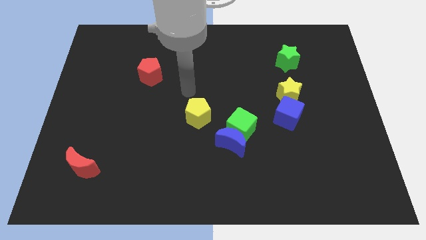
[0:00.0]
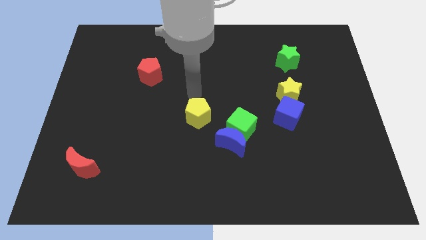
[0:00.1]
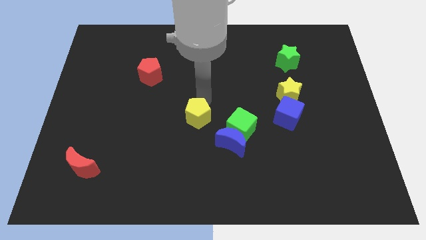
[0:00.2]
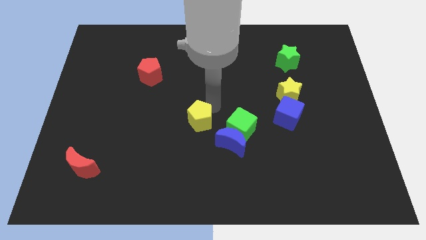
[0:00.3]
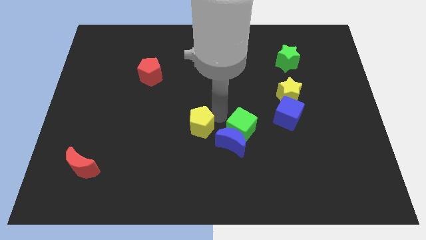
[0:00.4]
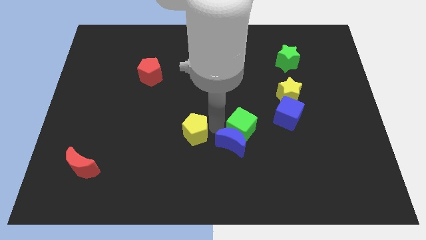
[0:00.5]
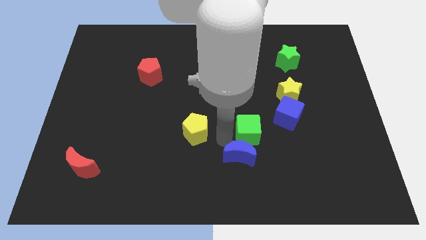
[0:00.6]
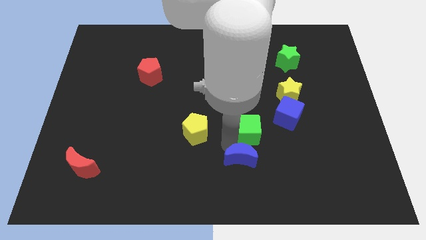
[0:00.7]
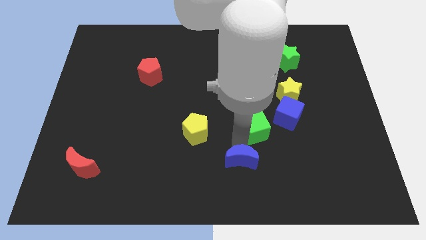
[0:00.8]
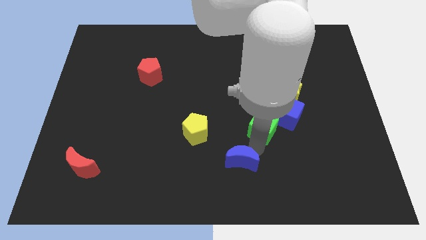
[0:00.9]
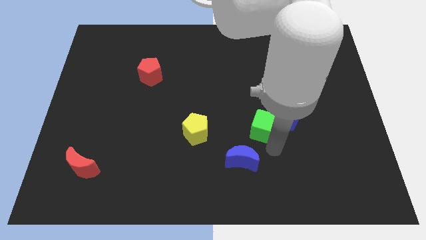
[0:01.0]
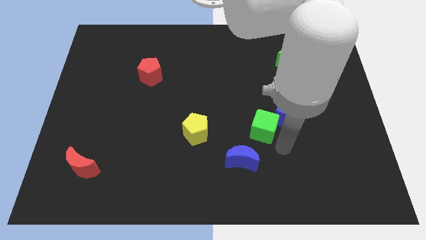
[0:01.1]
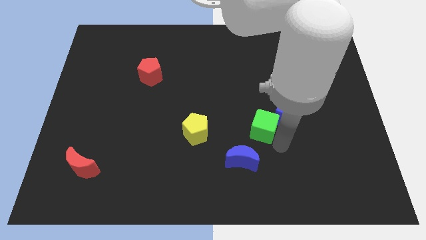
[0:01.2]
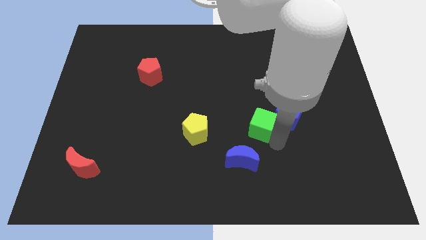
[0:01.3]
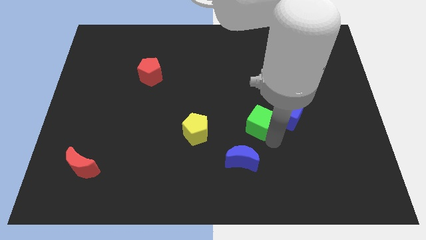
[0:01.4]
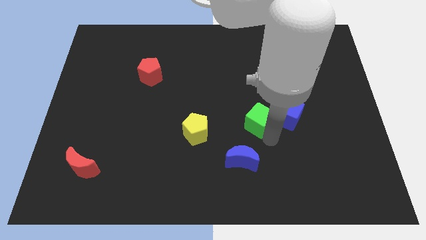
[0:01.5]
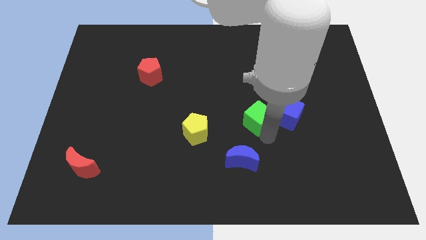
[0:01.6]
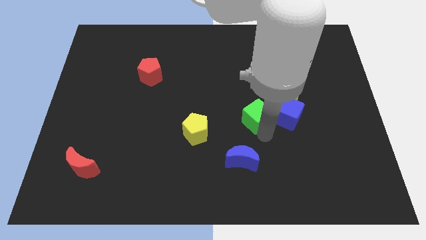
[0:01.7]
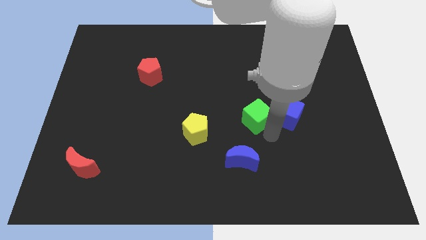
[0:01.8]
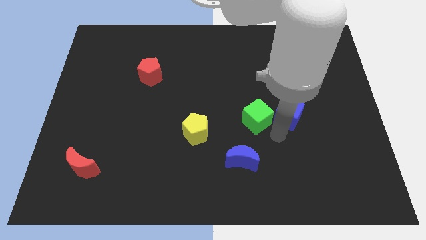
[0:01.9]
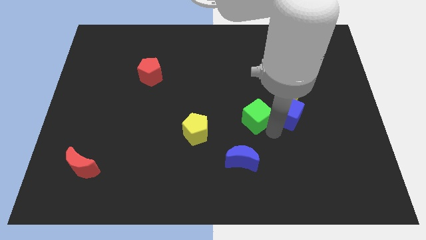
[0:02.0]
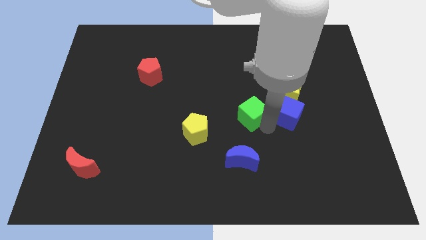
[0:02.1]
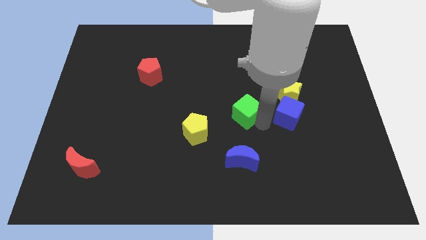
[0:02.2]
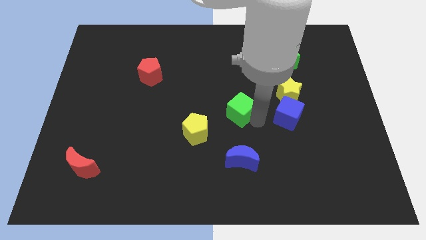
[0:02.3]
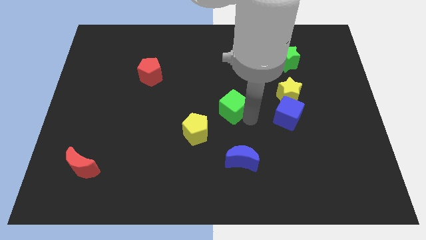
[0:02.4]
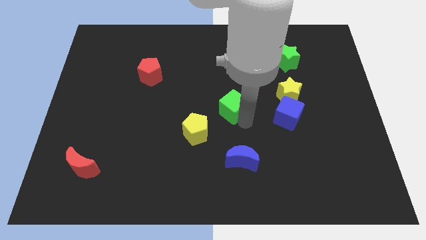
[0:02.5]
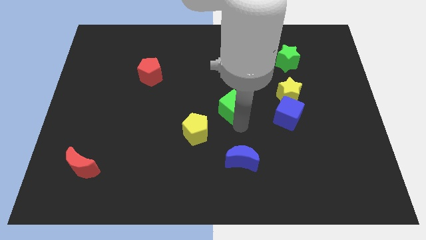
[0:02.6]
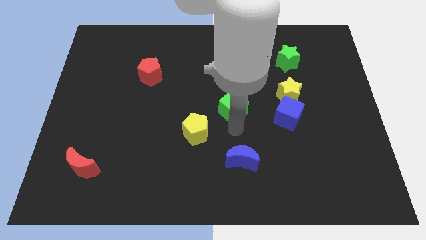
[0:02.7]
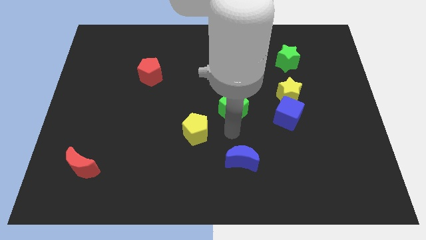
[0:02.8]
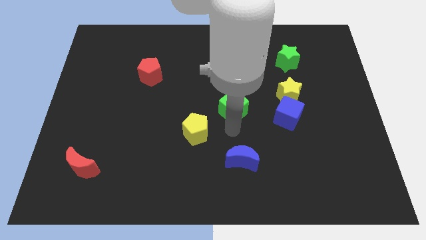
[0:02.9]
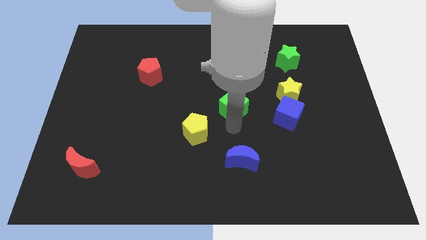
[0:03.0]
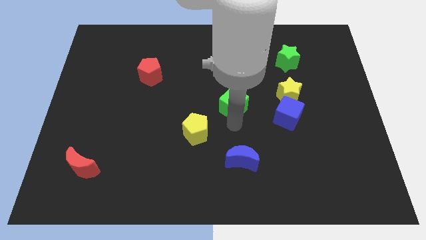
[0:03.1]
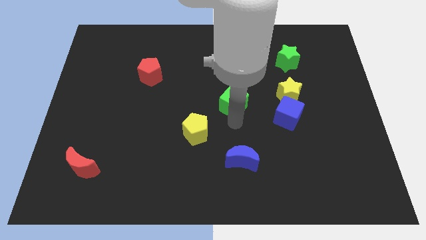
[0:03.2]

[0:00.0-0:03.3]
push the green cube upwards a bit

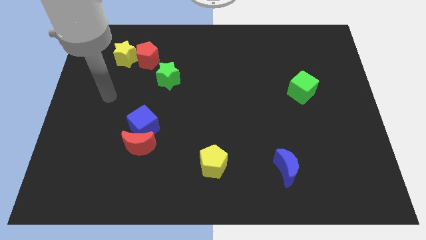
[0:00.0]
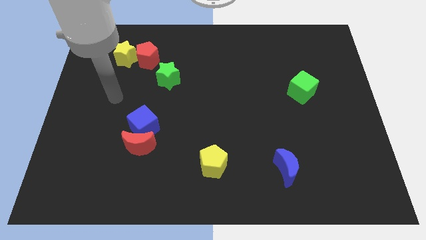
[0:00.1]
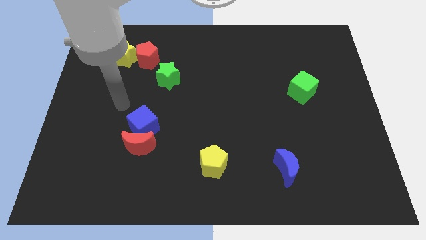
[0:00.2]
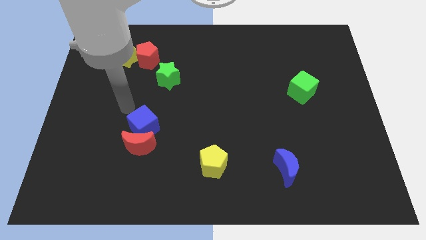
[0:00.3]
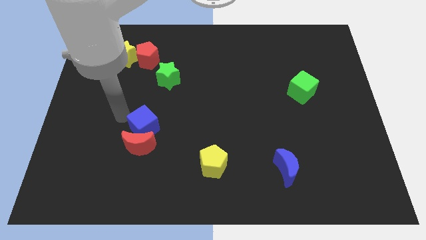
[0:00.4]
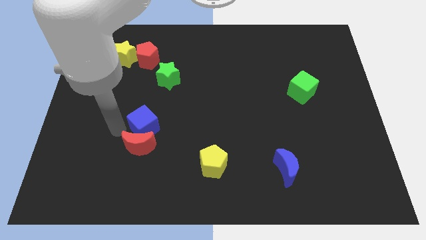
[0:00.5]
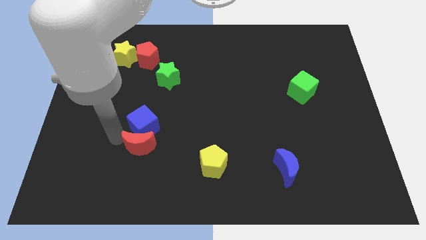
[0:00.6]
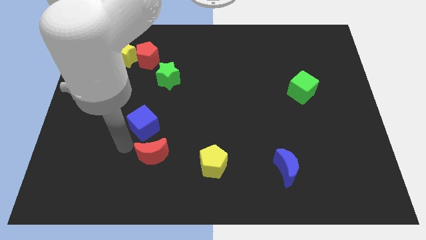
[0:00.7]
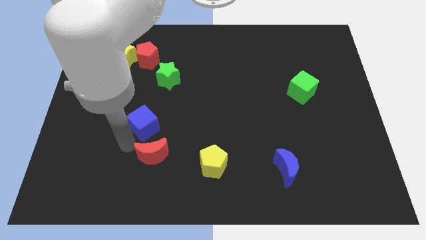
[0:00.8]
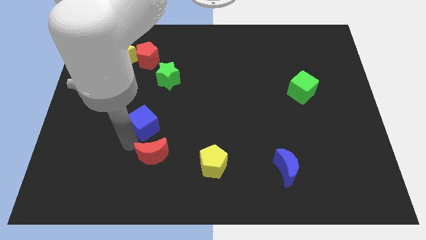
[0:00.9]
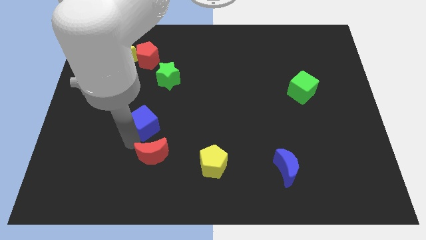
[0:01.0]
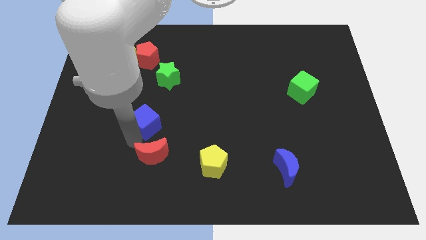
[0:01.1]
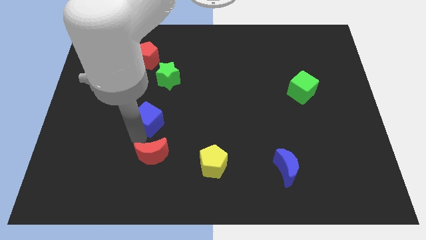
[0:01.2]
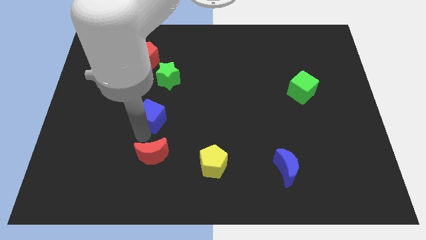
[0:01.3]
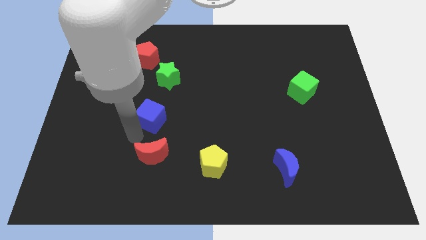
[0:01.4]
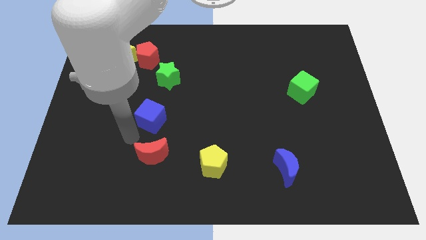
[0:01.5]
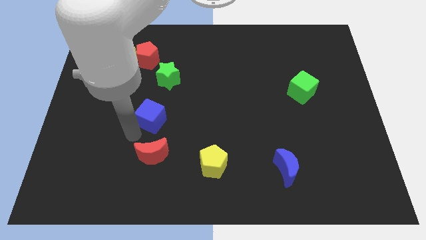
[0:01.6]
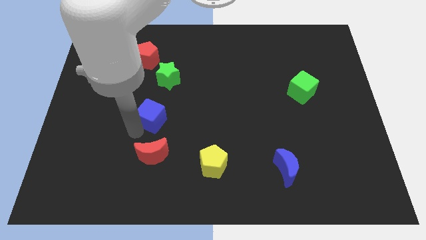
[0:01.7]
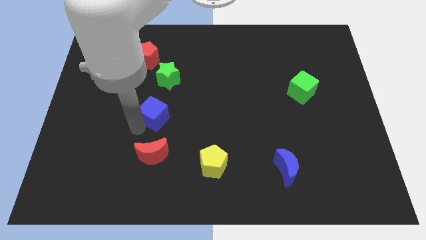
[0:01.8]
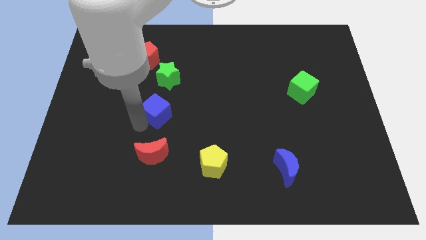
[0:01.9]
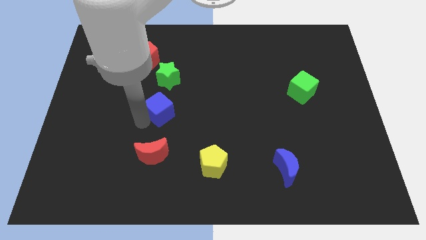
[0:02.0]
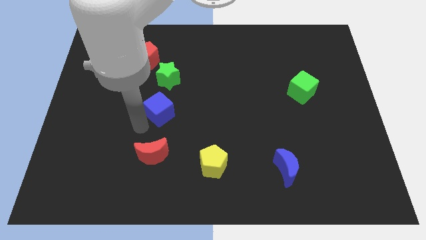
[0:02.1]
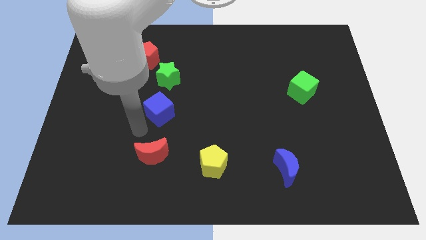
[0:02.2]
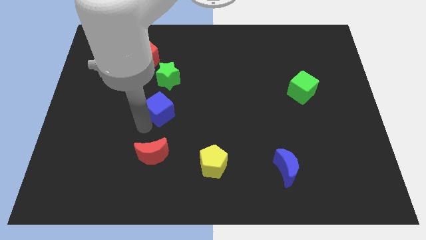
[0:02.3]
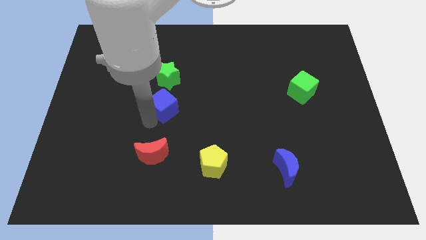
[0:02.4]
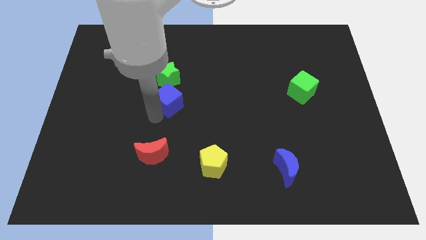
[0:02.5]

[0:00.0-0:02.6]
push the blue cube upwards and then right somewhat

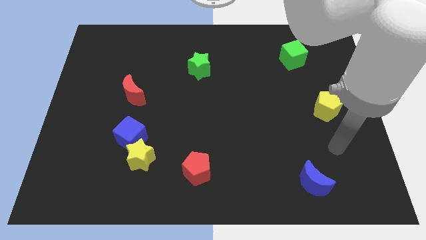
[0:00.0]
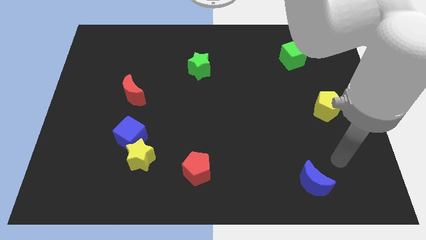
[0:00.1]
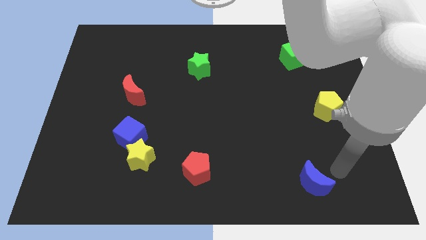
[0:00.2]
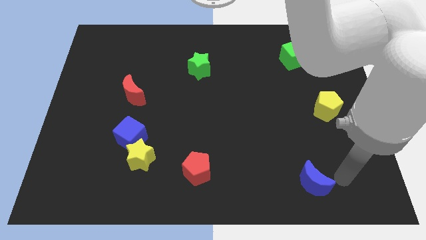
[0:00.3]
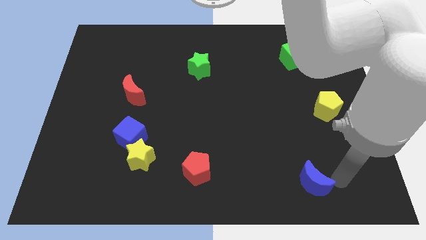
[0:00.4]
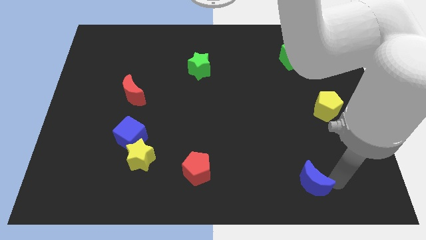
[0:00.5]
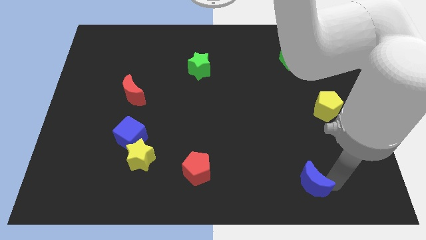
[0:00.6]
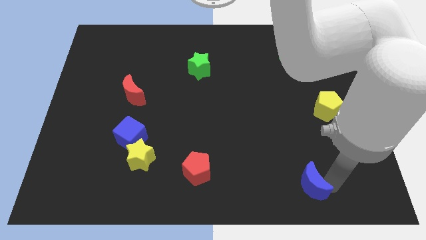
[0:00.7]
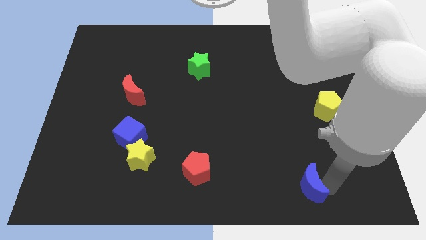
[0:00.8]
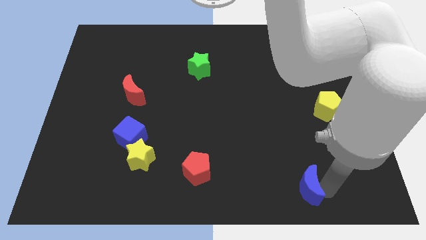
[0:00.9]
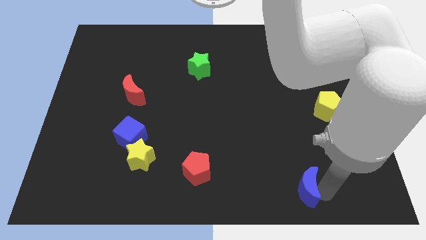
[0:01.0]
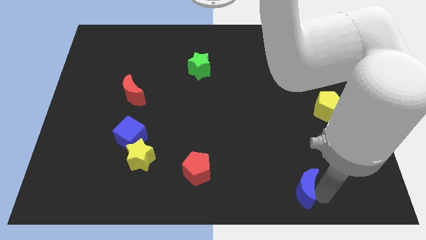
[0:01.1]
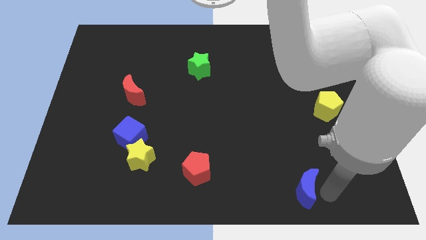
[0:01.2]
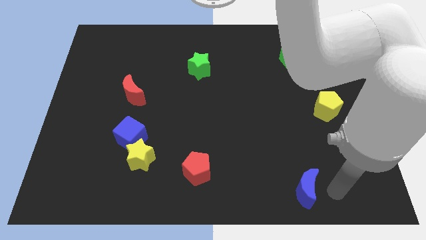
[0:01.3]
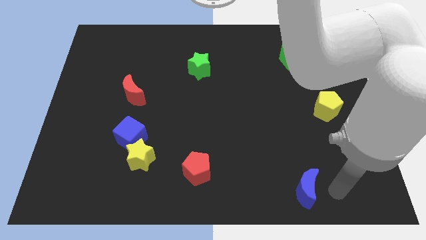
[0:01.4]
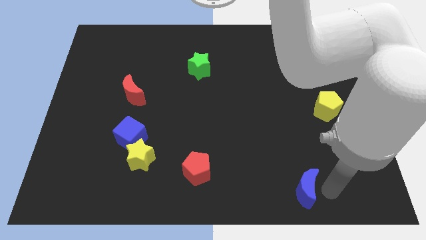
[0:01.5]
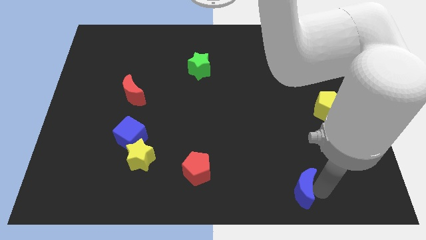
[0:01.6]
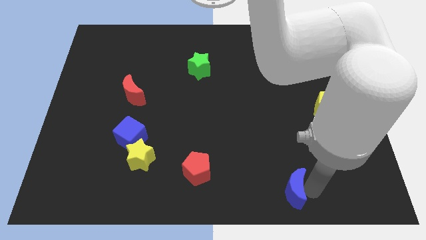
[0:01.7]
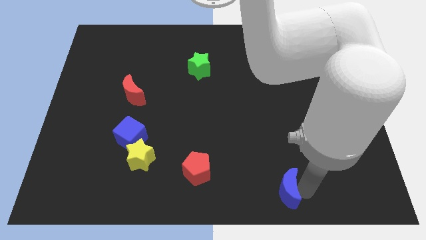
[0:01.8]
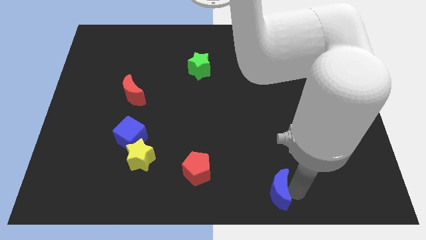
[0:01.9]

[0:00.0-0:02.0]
slightly push the blue moon left
